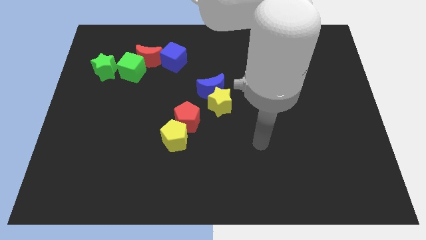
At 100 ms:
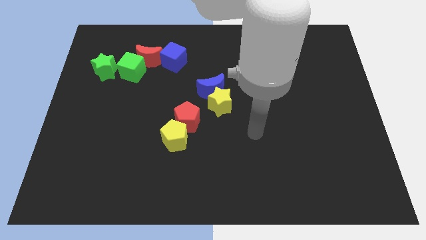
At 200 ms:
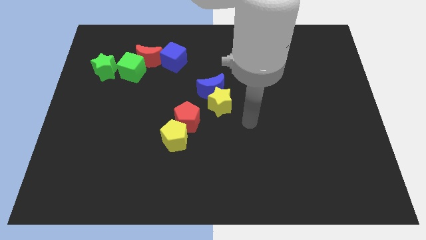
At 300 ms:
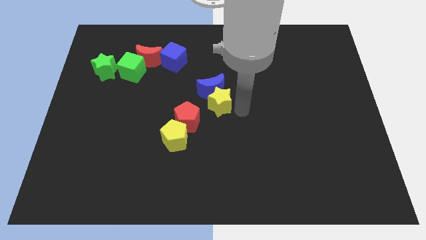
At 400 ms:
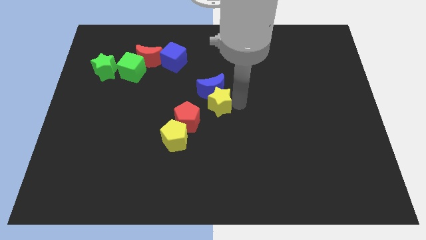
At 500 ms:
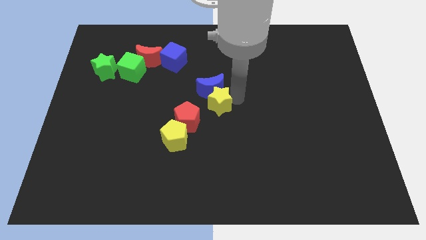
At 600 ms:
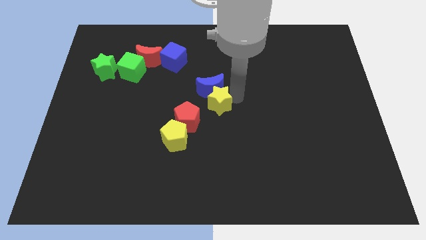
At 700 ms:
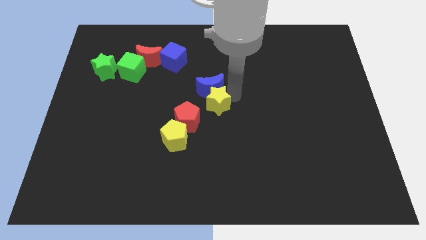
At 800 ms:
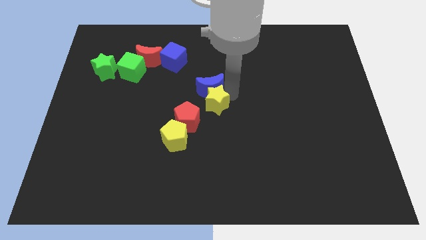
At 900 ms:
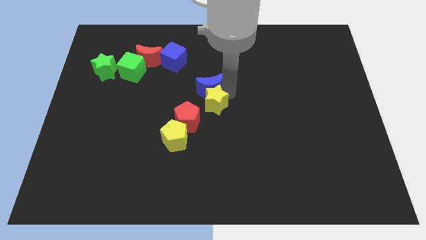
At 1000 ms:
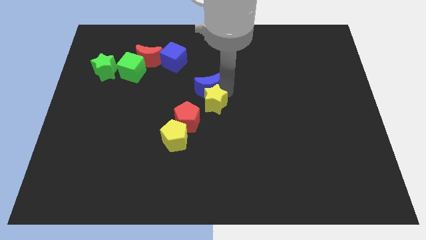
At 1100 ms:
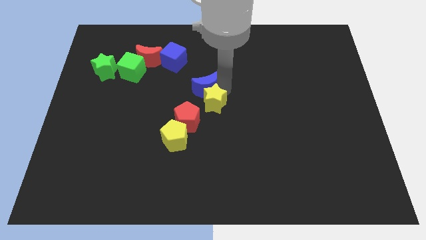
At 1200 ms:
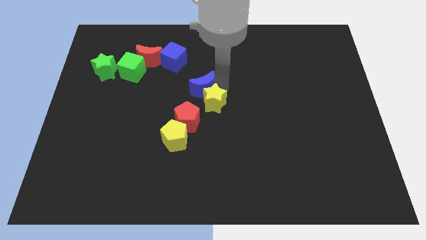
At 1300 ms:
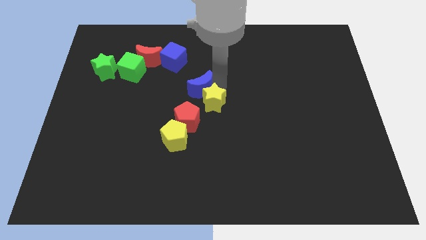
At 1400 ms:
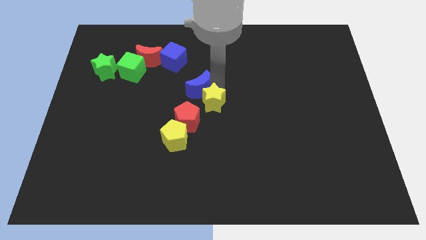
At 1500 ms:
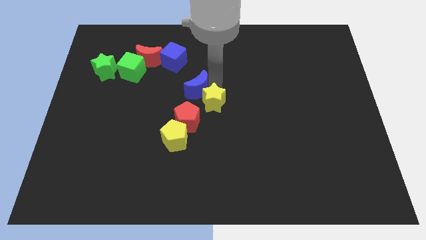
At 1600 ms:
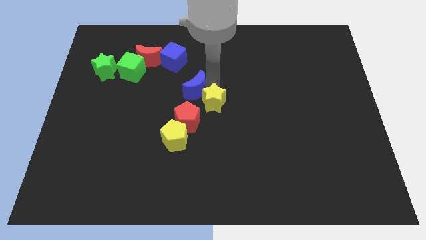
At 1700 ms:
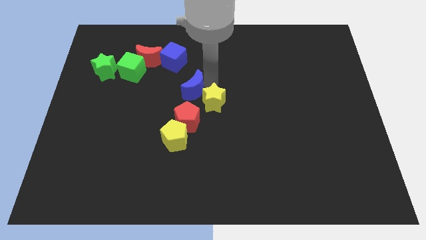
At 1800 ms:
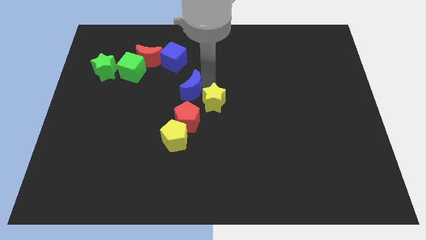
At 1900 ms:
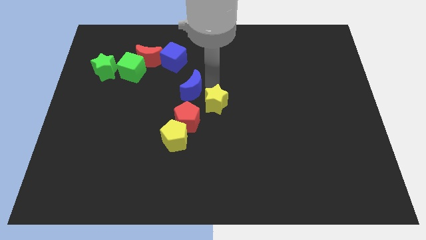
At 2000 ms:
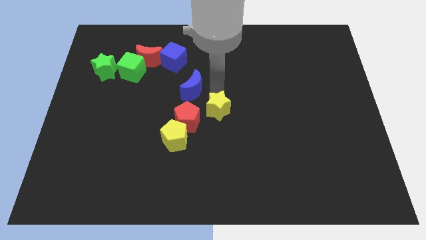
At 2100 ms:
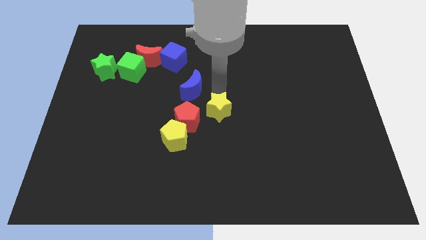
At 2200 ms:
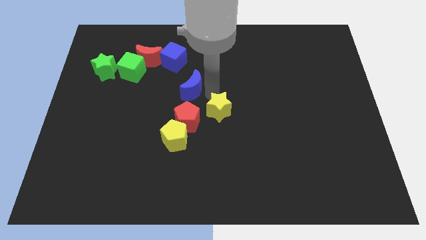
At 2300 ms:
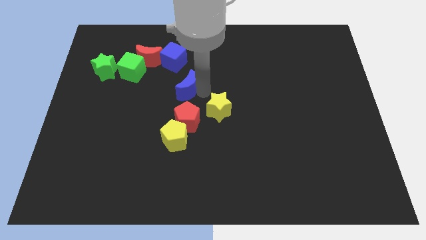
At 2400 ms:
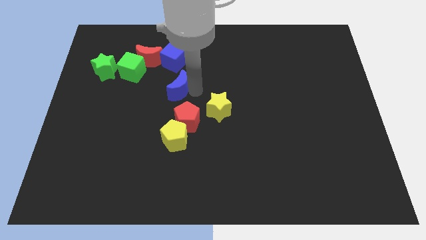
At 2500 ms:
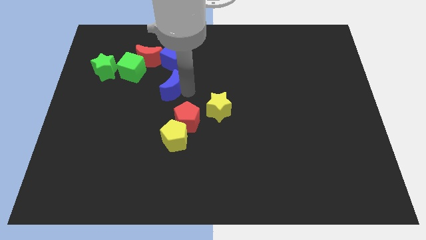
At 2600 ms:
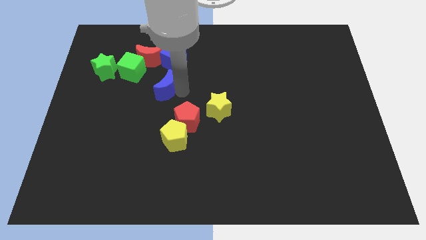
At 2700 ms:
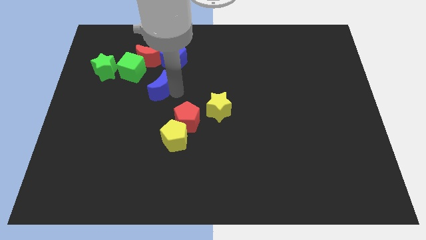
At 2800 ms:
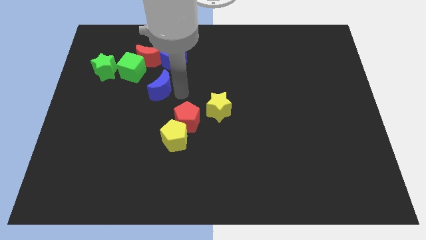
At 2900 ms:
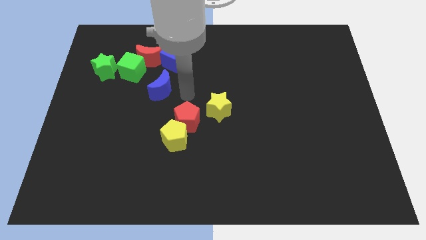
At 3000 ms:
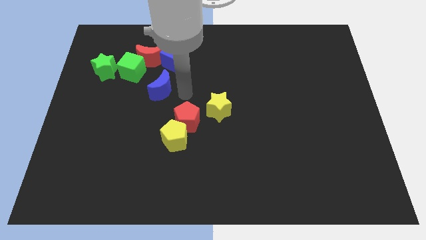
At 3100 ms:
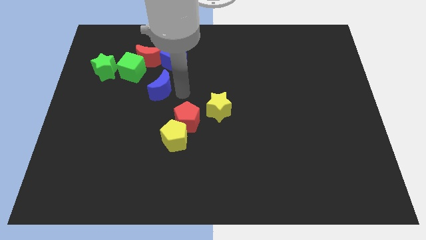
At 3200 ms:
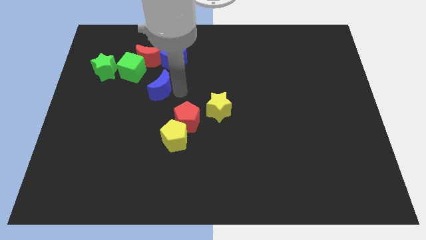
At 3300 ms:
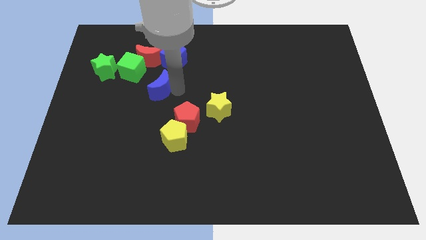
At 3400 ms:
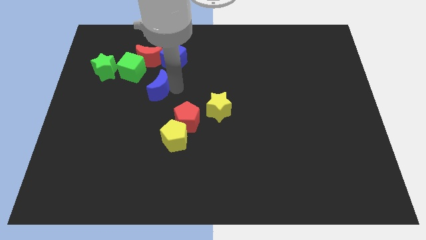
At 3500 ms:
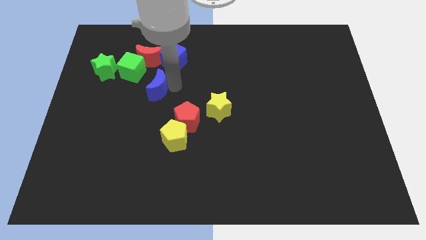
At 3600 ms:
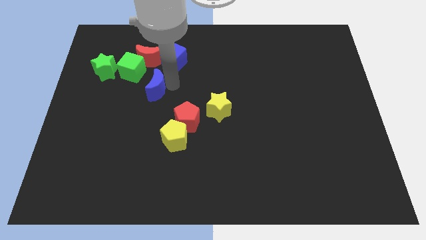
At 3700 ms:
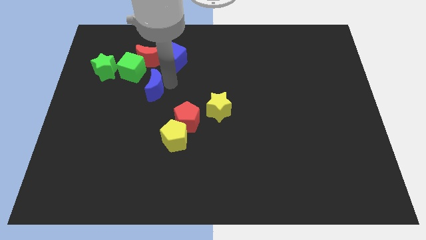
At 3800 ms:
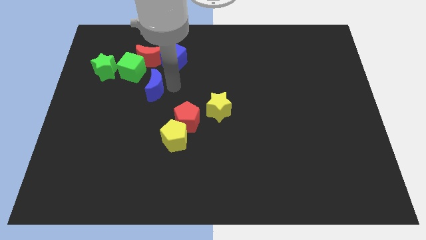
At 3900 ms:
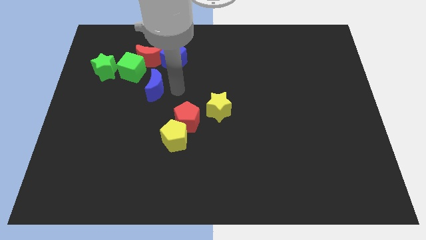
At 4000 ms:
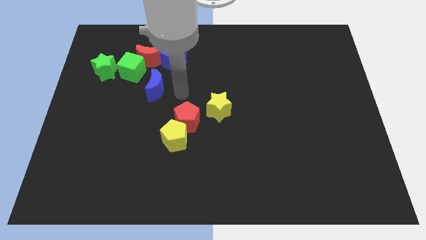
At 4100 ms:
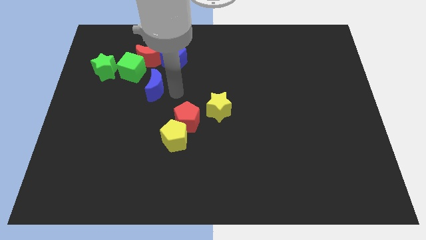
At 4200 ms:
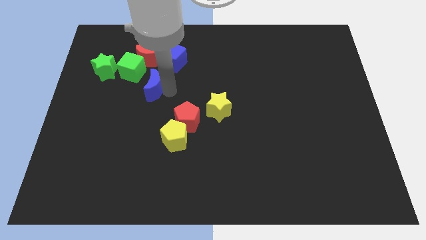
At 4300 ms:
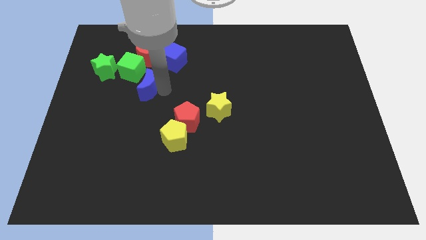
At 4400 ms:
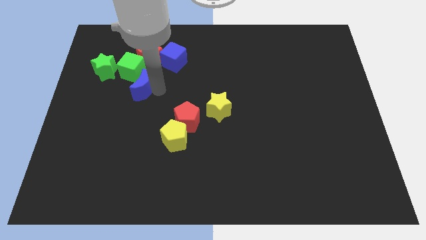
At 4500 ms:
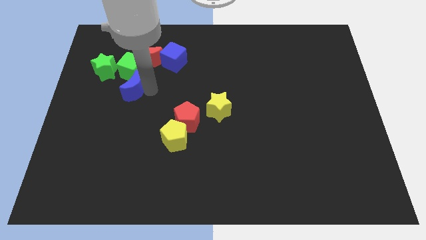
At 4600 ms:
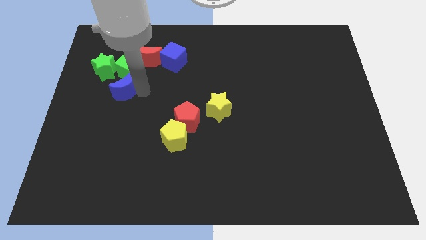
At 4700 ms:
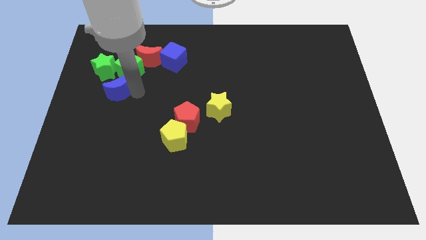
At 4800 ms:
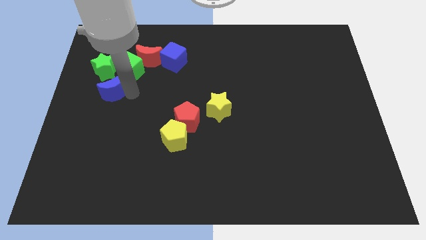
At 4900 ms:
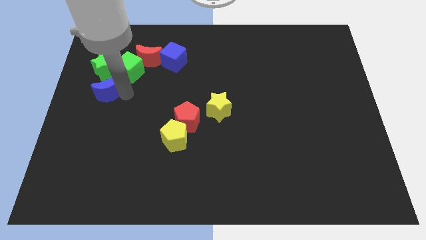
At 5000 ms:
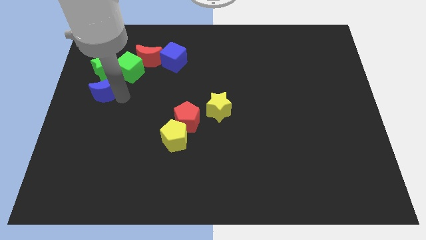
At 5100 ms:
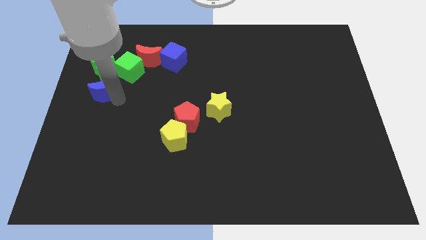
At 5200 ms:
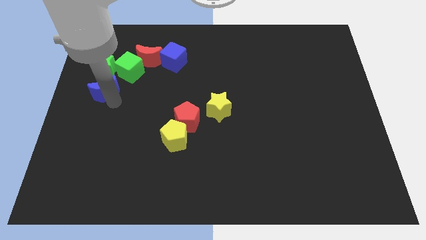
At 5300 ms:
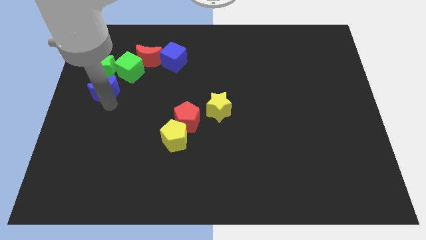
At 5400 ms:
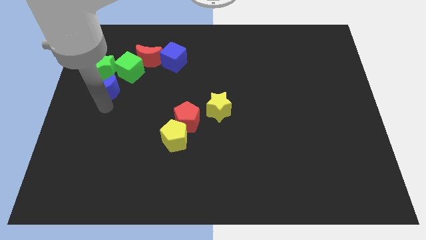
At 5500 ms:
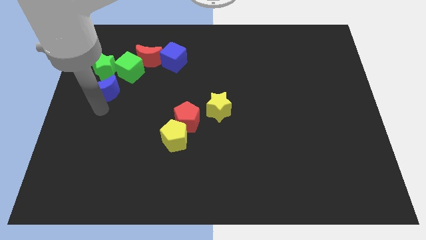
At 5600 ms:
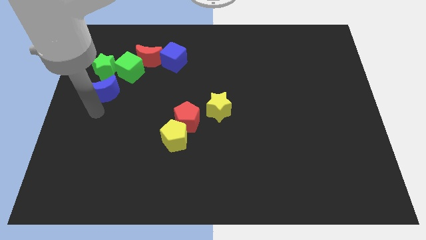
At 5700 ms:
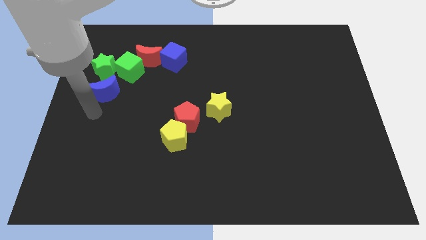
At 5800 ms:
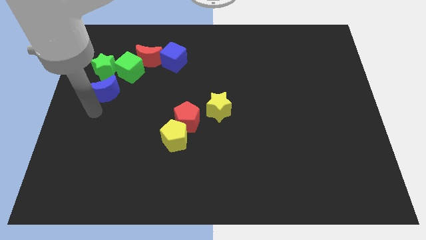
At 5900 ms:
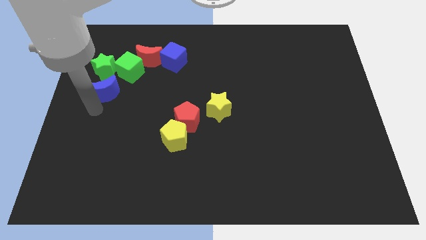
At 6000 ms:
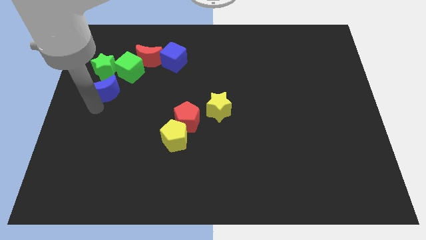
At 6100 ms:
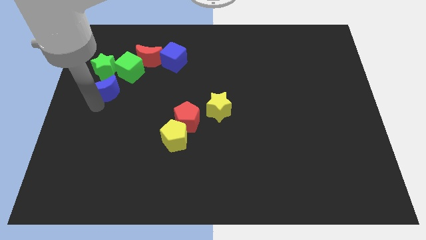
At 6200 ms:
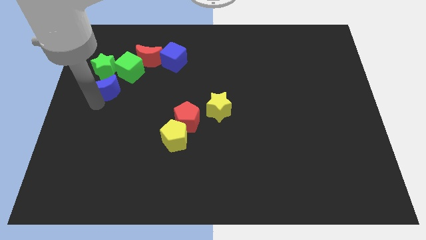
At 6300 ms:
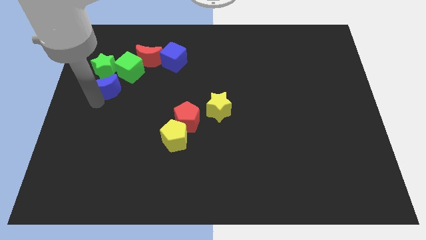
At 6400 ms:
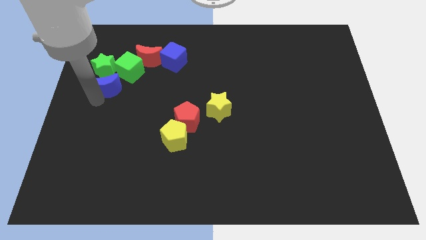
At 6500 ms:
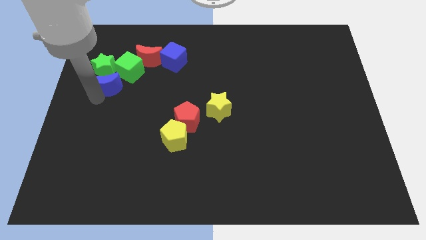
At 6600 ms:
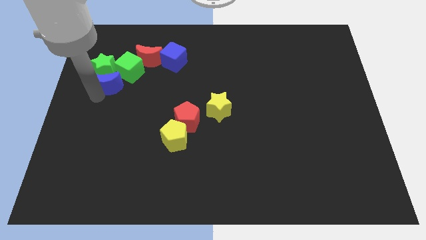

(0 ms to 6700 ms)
push the blue moon to the green star

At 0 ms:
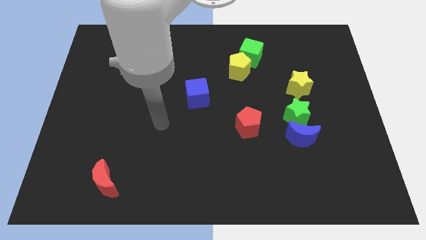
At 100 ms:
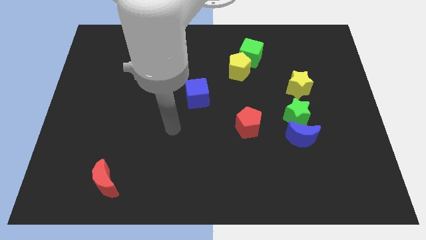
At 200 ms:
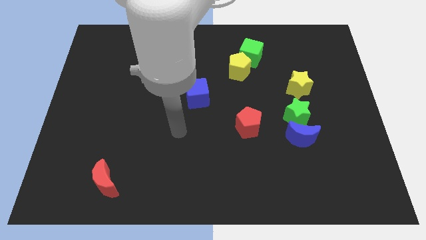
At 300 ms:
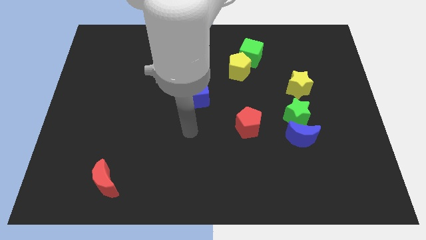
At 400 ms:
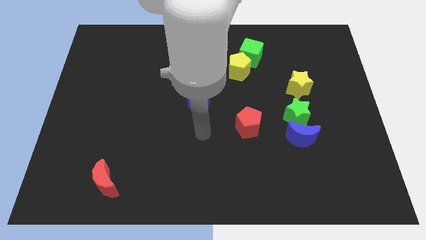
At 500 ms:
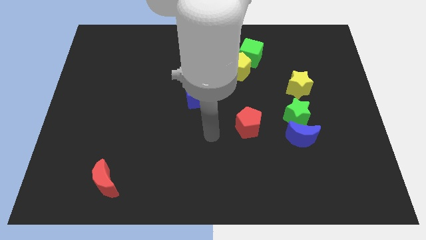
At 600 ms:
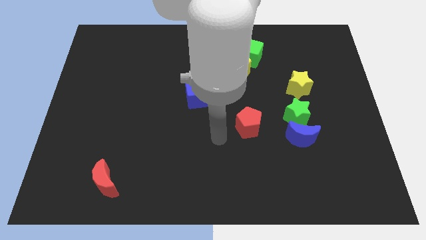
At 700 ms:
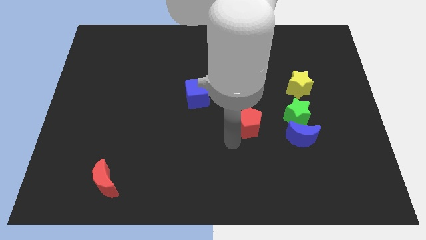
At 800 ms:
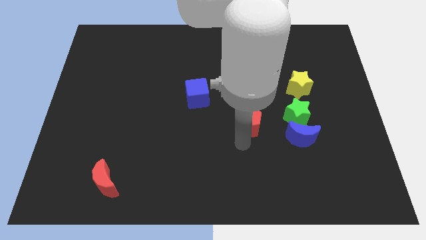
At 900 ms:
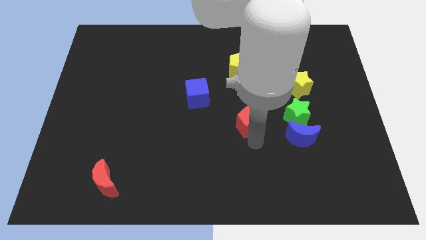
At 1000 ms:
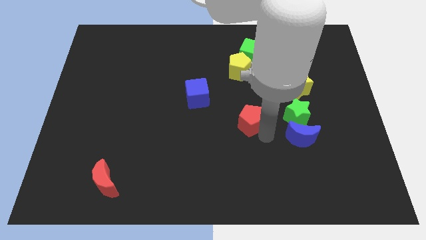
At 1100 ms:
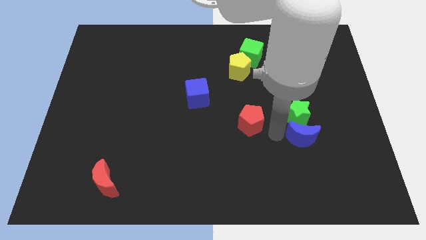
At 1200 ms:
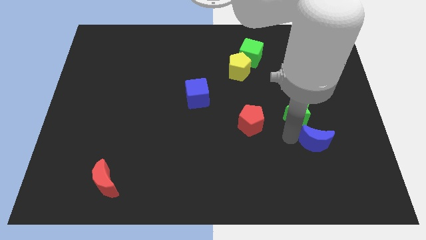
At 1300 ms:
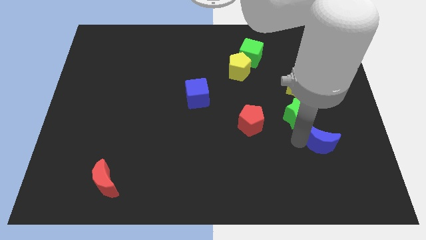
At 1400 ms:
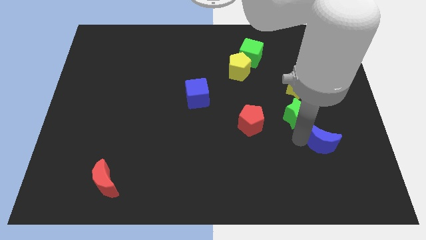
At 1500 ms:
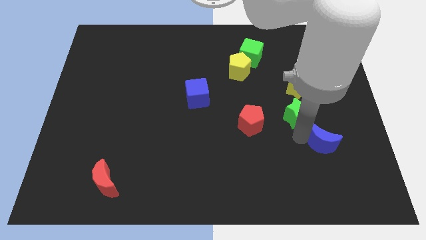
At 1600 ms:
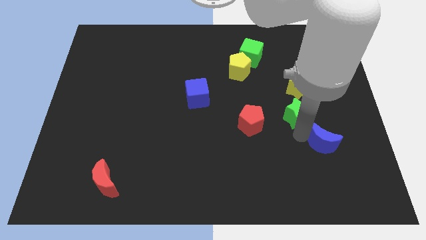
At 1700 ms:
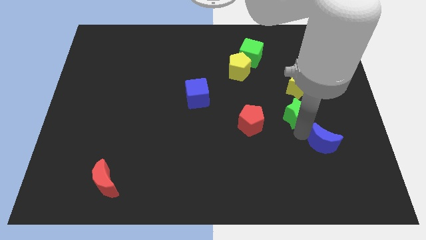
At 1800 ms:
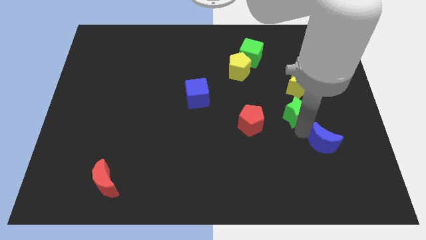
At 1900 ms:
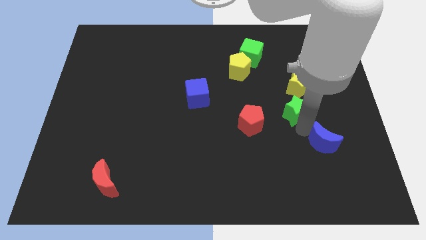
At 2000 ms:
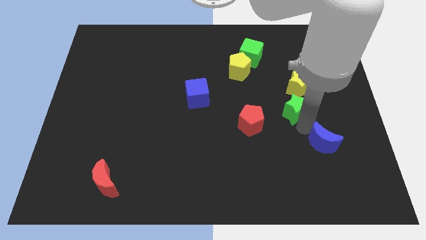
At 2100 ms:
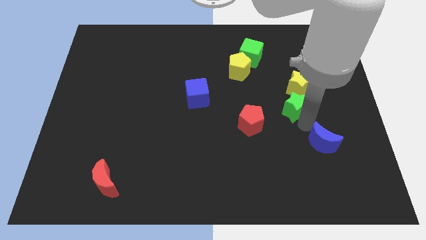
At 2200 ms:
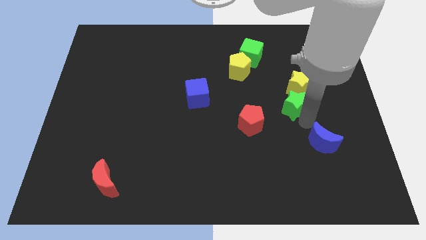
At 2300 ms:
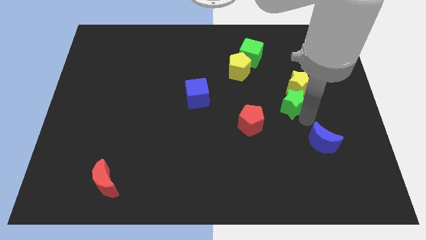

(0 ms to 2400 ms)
put the green star towards the yellow star
